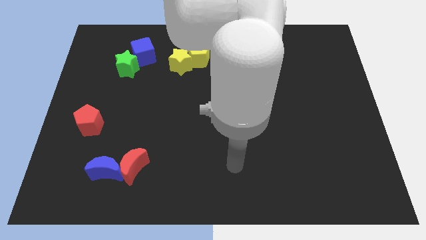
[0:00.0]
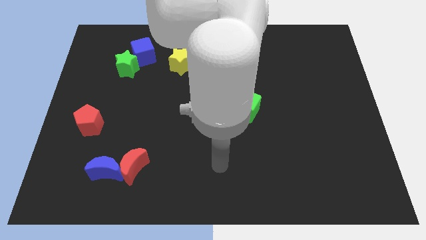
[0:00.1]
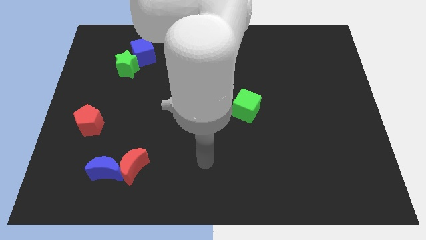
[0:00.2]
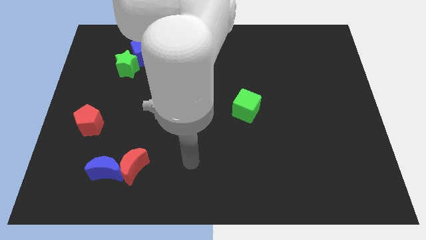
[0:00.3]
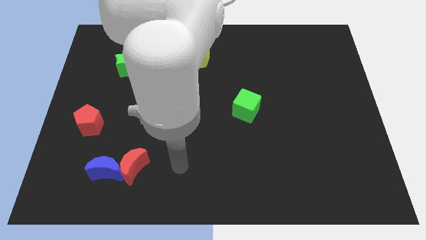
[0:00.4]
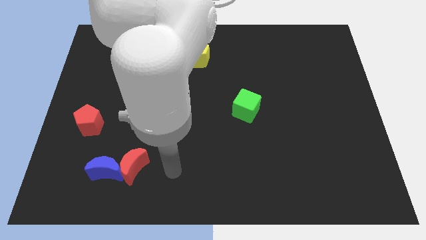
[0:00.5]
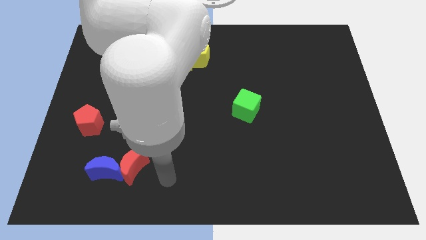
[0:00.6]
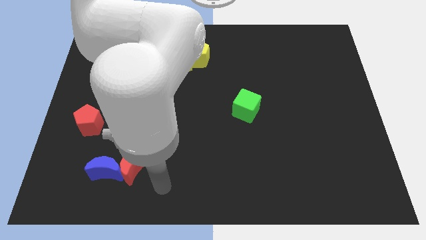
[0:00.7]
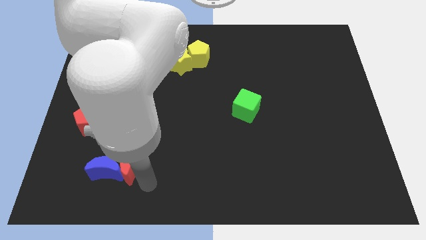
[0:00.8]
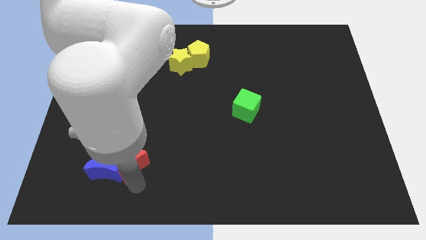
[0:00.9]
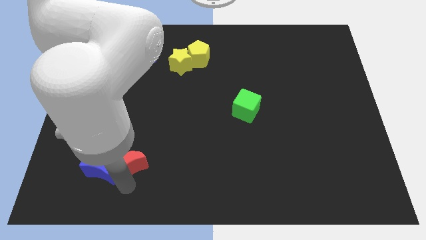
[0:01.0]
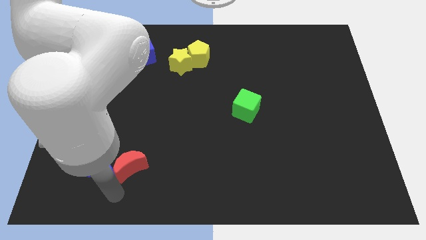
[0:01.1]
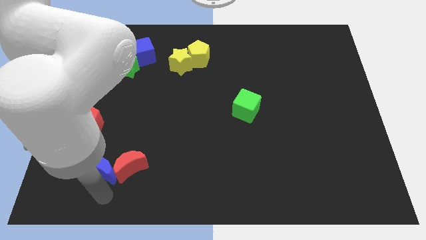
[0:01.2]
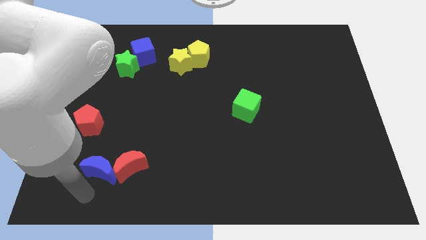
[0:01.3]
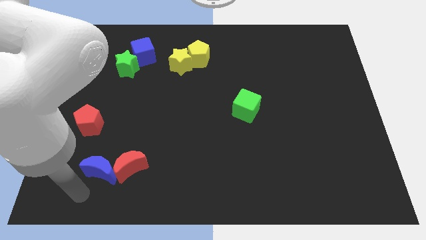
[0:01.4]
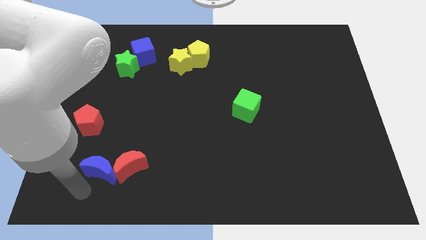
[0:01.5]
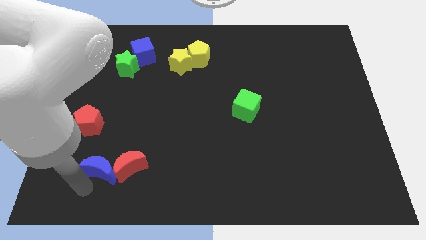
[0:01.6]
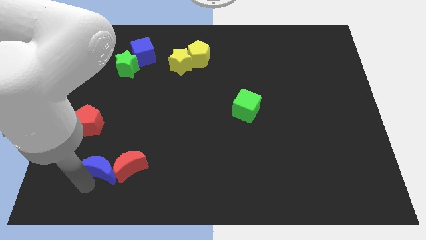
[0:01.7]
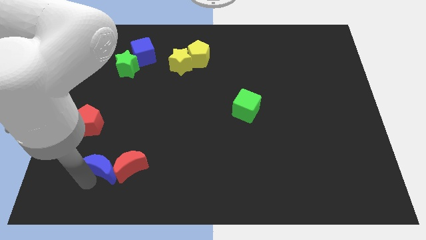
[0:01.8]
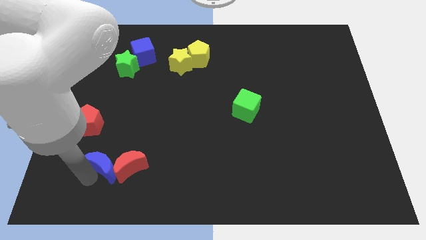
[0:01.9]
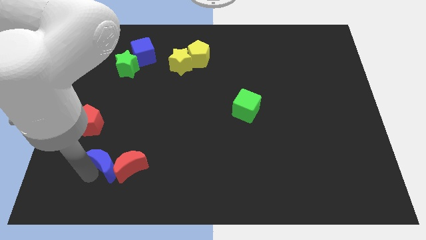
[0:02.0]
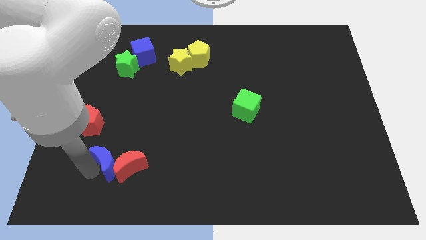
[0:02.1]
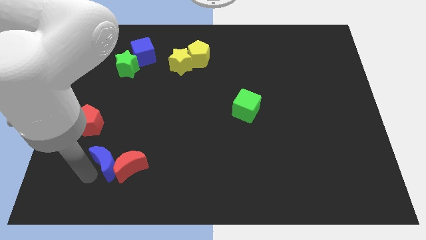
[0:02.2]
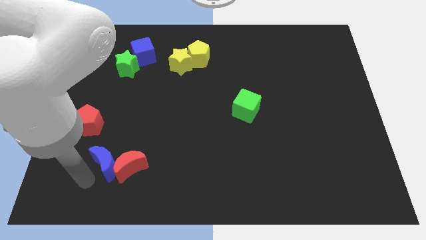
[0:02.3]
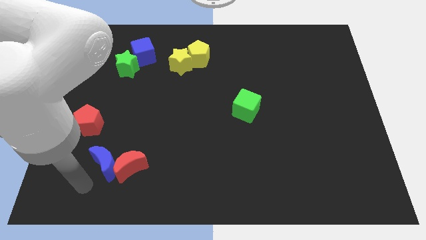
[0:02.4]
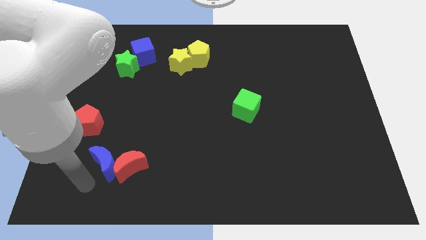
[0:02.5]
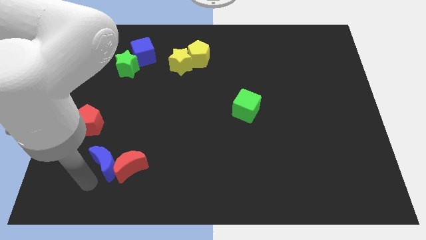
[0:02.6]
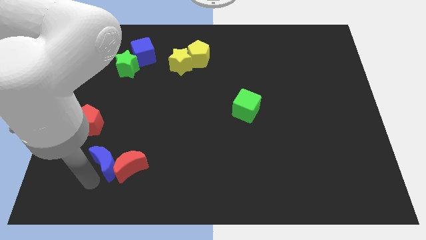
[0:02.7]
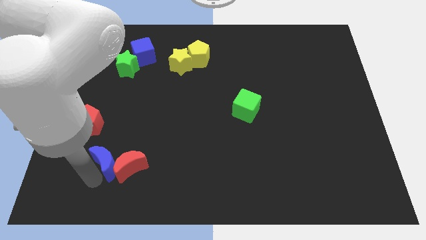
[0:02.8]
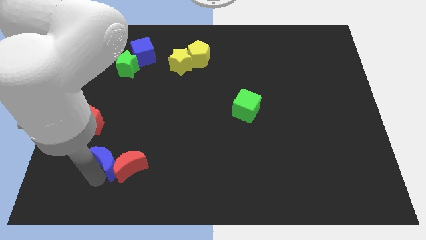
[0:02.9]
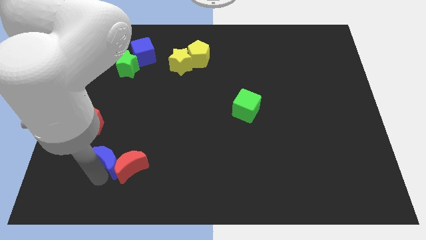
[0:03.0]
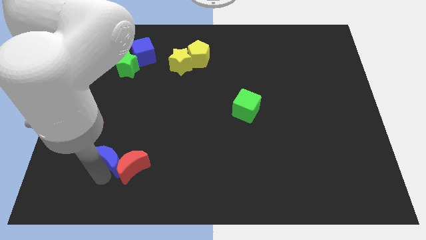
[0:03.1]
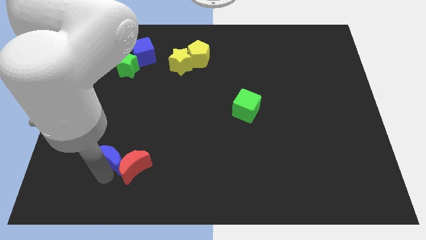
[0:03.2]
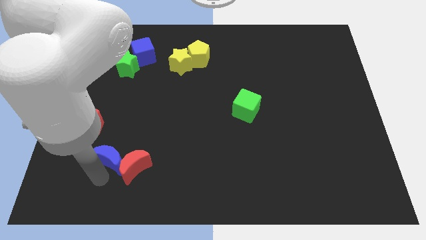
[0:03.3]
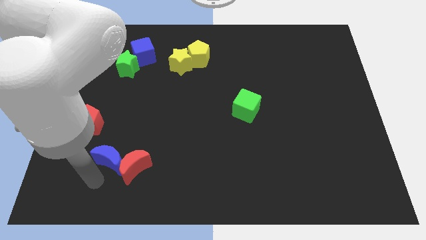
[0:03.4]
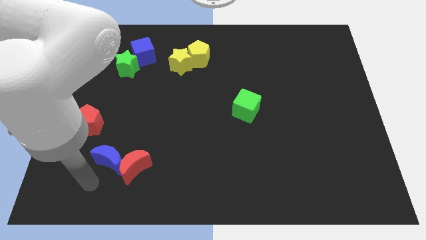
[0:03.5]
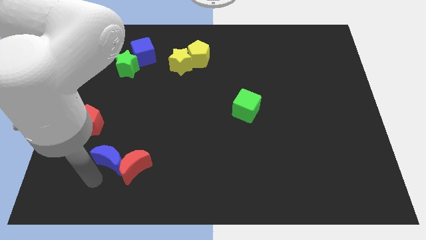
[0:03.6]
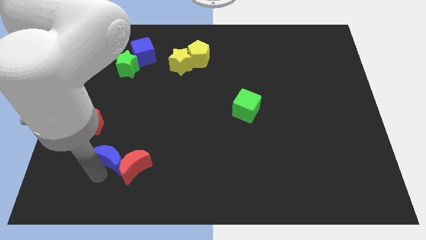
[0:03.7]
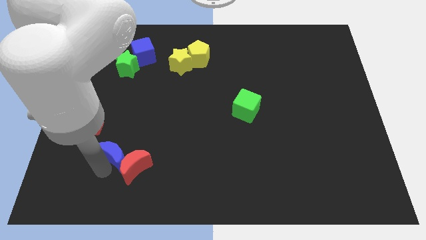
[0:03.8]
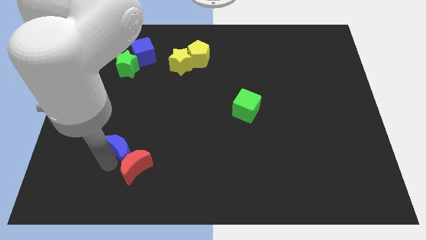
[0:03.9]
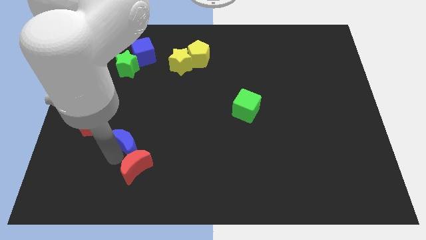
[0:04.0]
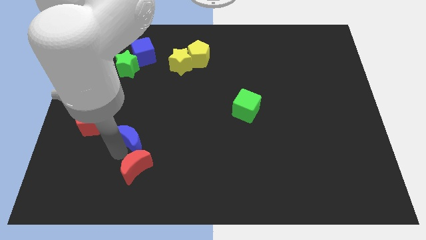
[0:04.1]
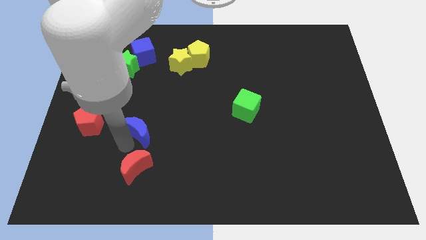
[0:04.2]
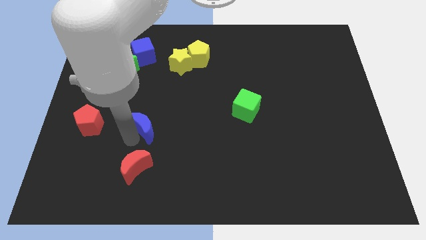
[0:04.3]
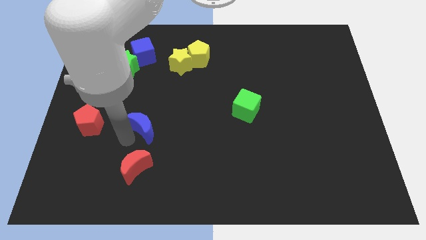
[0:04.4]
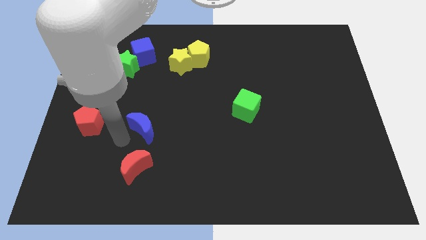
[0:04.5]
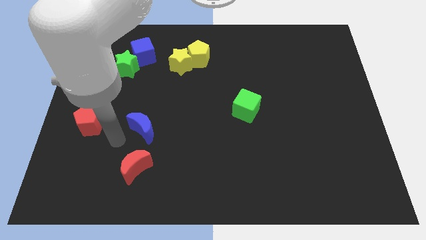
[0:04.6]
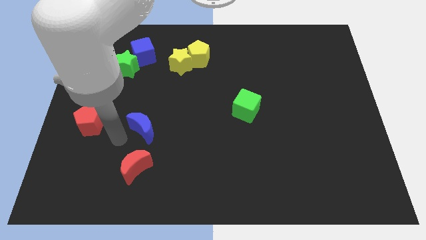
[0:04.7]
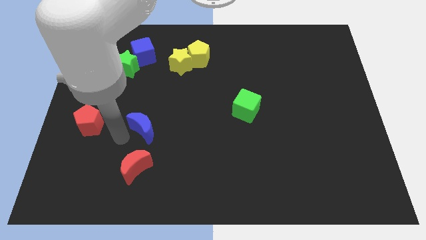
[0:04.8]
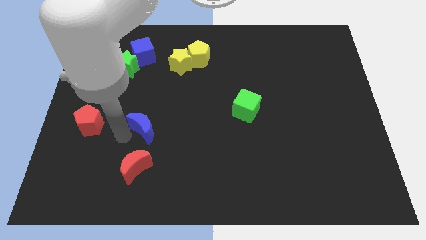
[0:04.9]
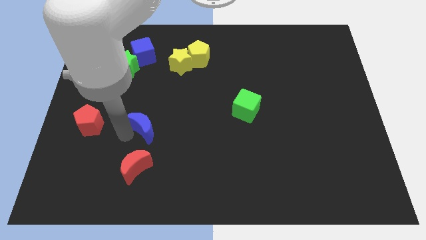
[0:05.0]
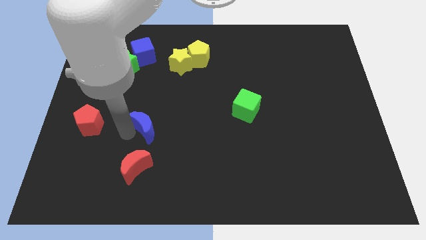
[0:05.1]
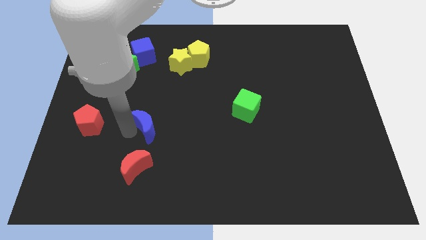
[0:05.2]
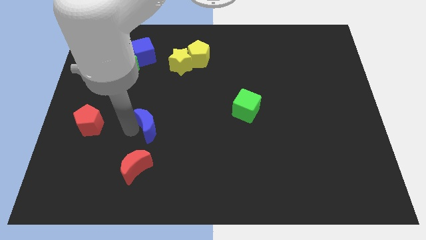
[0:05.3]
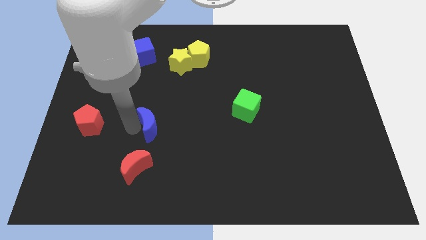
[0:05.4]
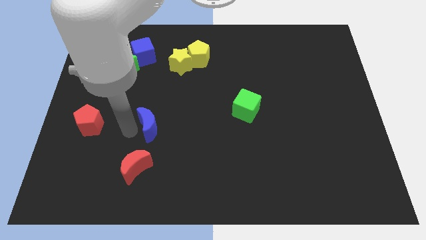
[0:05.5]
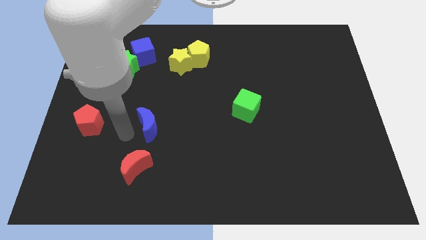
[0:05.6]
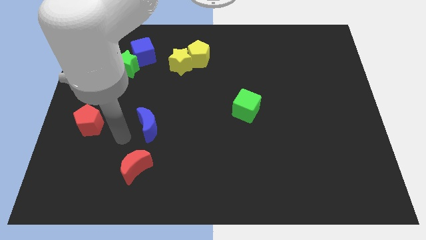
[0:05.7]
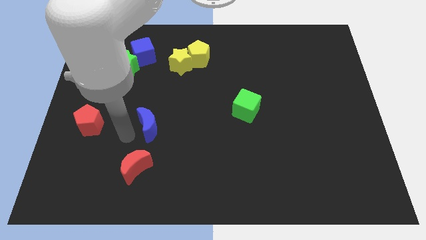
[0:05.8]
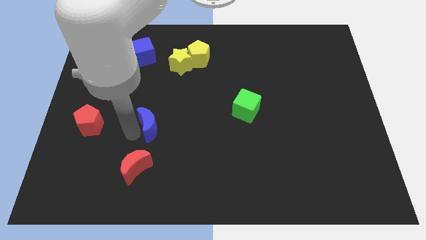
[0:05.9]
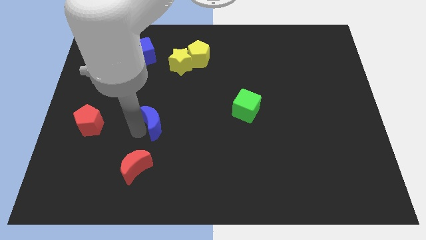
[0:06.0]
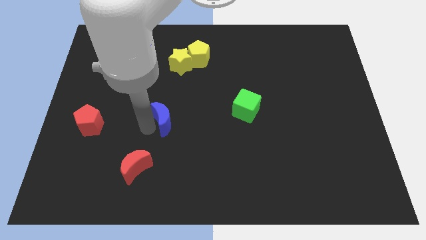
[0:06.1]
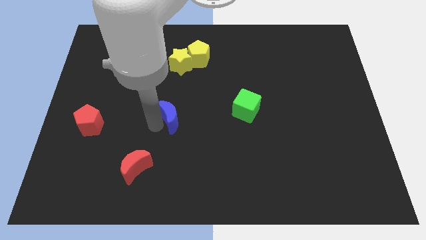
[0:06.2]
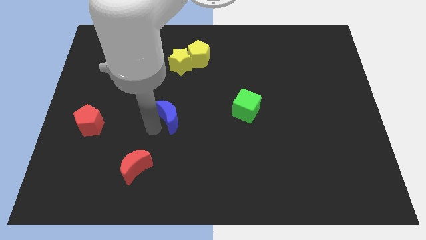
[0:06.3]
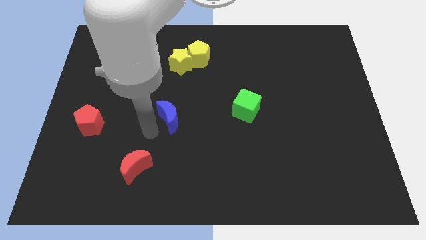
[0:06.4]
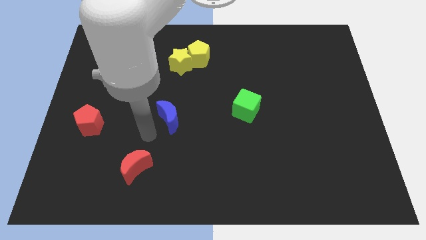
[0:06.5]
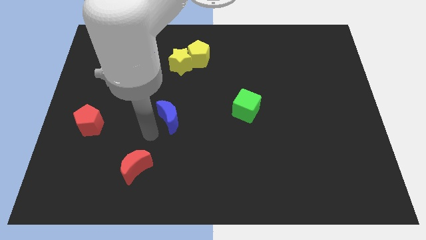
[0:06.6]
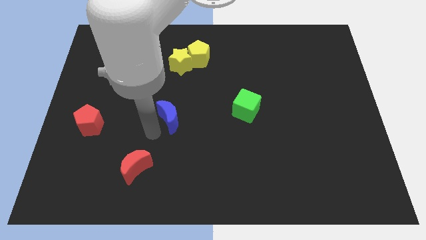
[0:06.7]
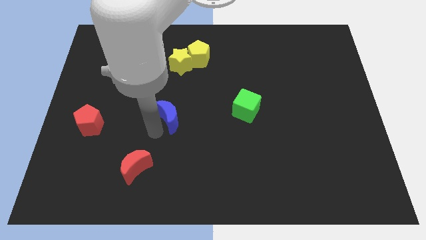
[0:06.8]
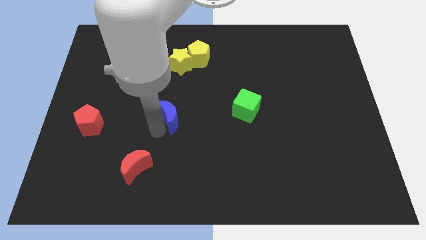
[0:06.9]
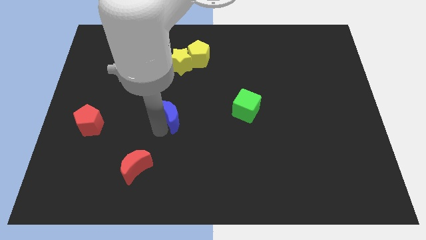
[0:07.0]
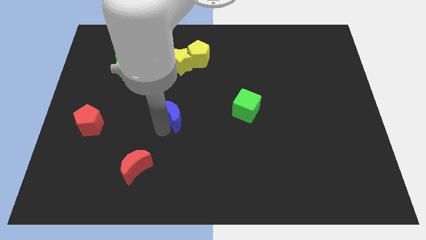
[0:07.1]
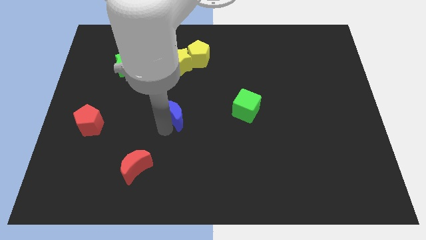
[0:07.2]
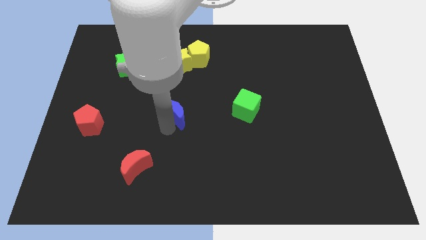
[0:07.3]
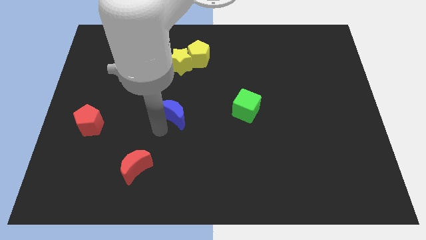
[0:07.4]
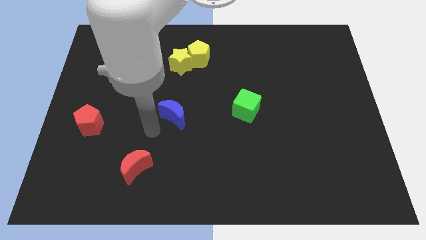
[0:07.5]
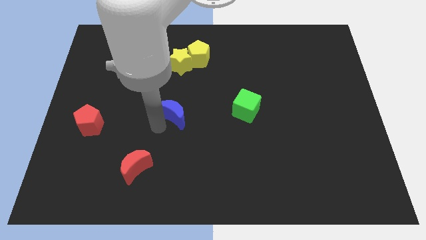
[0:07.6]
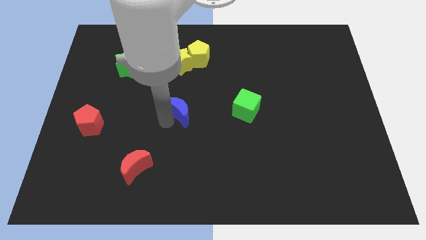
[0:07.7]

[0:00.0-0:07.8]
slide the blue moon upwards and right

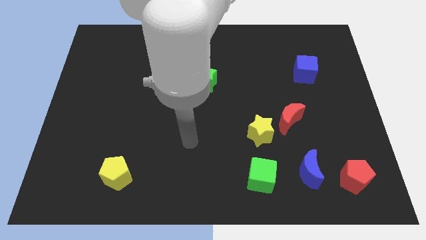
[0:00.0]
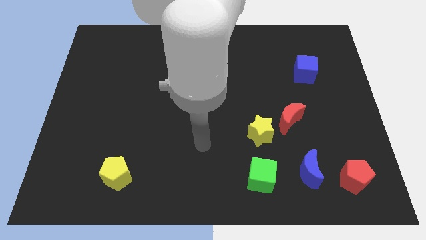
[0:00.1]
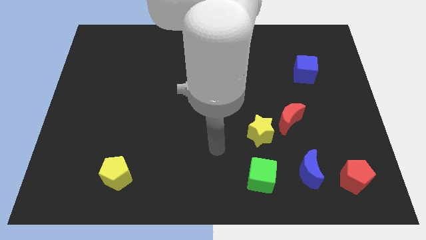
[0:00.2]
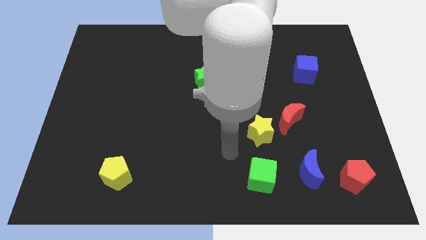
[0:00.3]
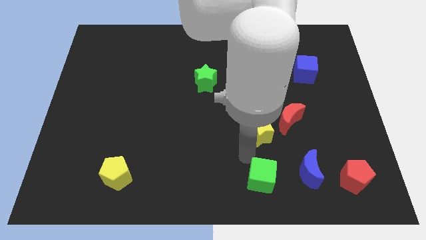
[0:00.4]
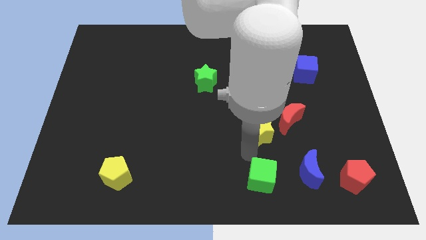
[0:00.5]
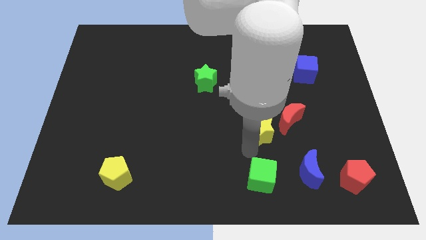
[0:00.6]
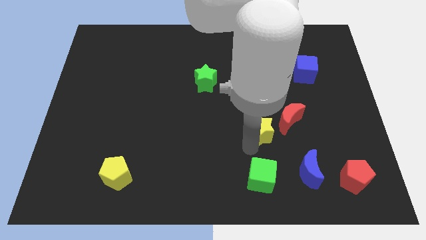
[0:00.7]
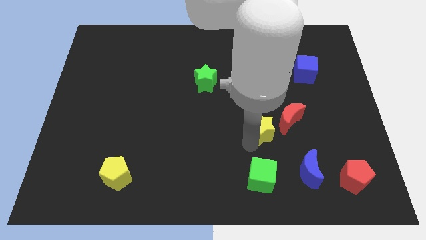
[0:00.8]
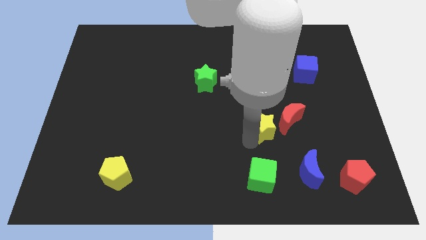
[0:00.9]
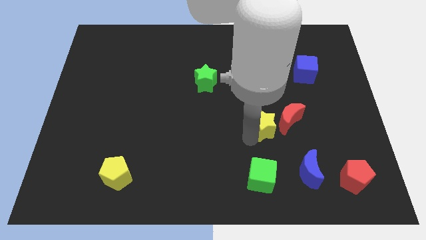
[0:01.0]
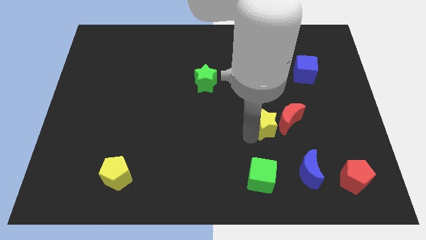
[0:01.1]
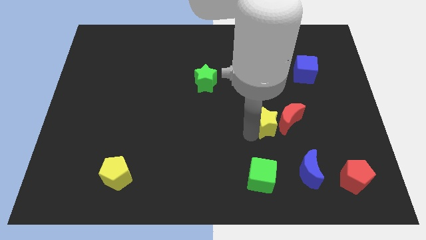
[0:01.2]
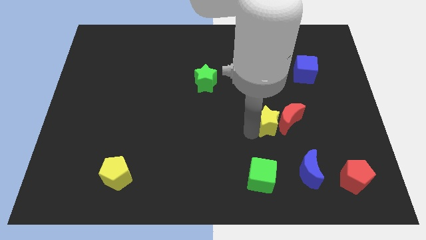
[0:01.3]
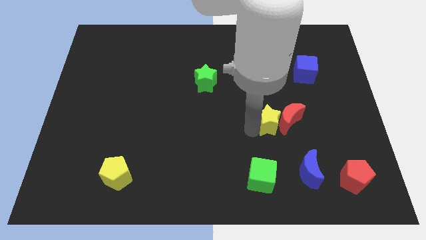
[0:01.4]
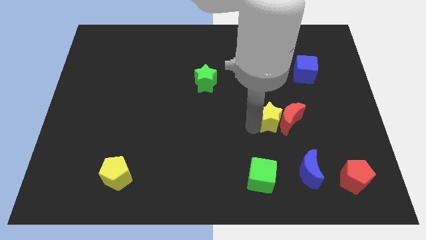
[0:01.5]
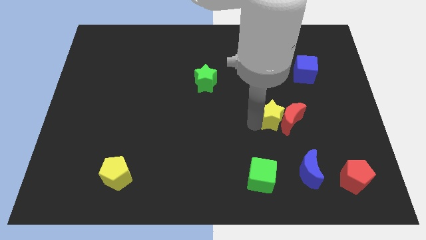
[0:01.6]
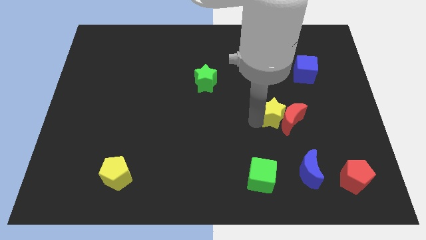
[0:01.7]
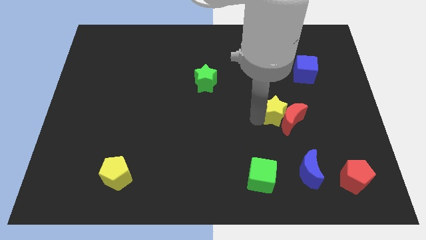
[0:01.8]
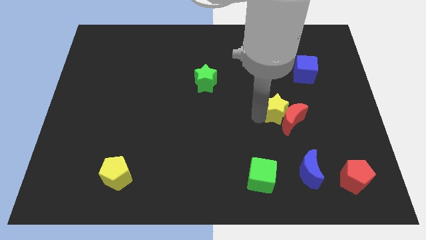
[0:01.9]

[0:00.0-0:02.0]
slightly slide the yellow star up and then right
